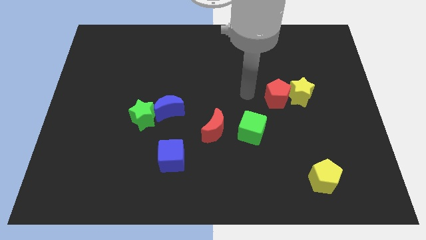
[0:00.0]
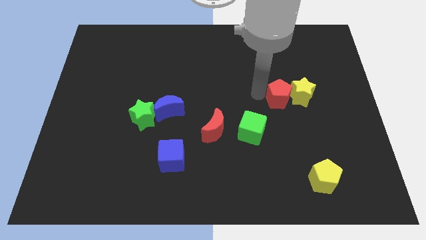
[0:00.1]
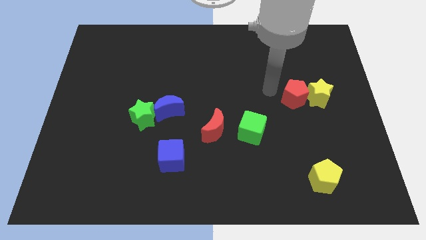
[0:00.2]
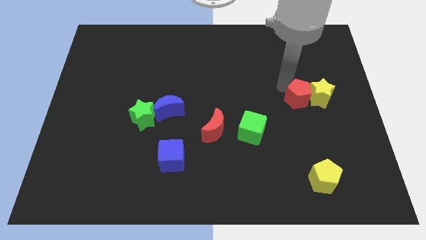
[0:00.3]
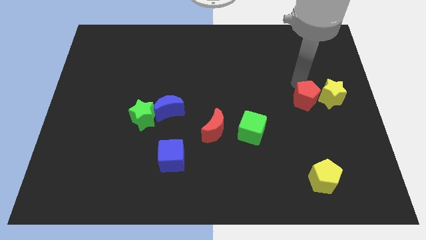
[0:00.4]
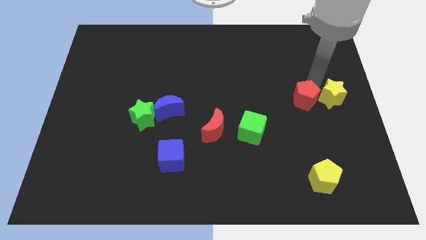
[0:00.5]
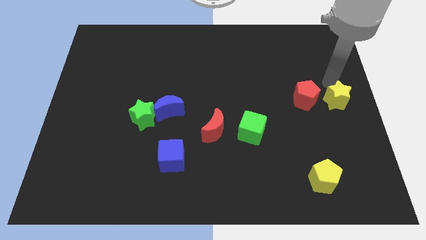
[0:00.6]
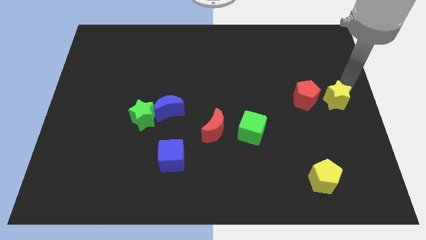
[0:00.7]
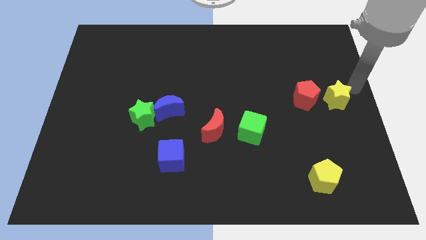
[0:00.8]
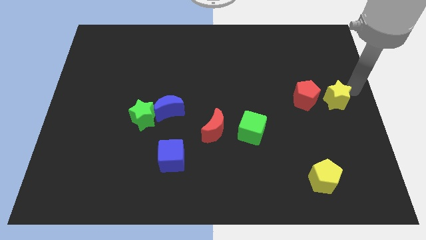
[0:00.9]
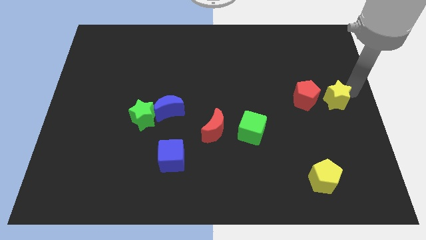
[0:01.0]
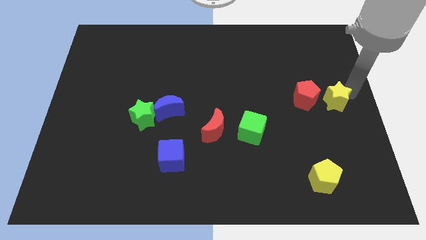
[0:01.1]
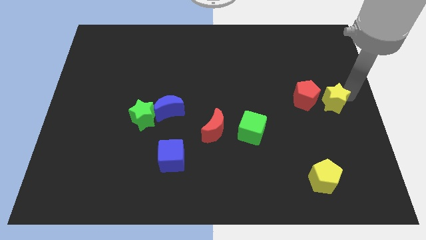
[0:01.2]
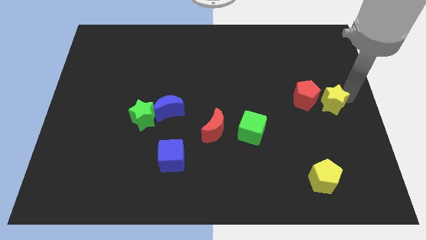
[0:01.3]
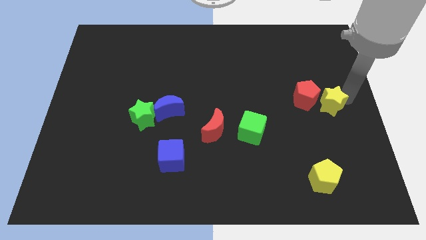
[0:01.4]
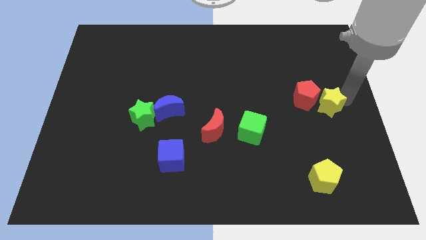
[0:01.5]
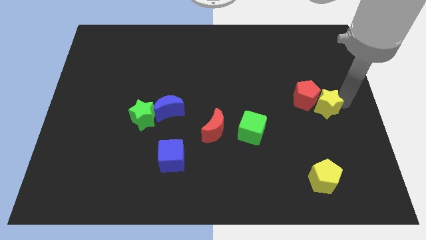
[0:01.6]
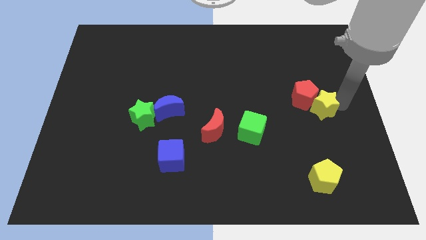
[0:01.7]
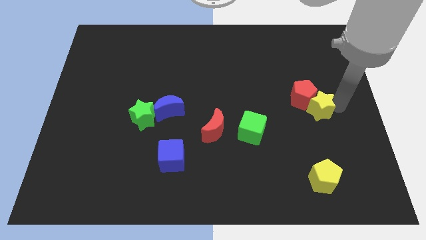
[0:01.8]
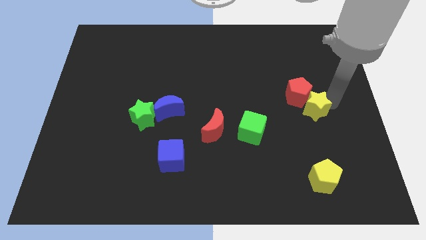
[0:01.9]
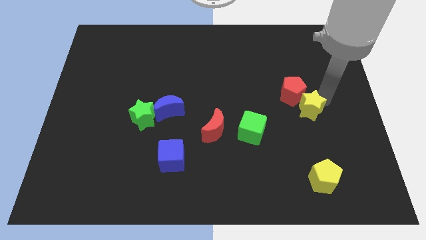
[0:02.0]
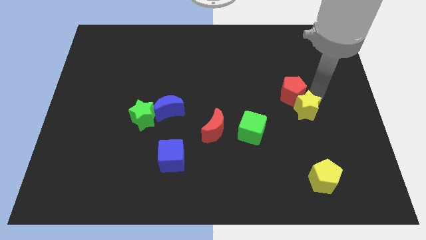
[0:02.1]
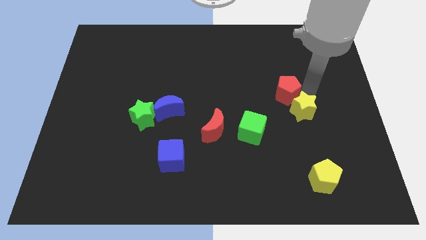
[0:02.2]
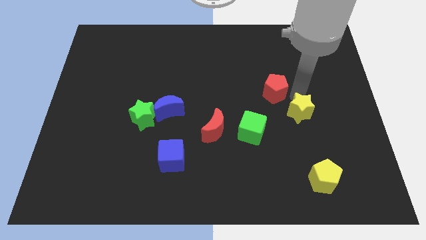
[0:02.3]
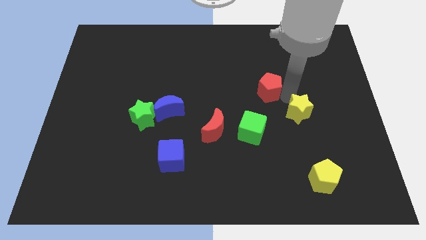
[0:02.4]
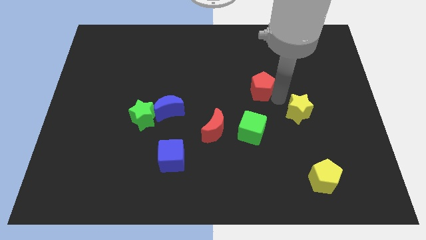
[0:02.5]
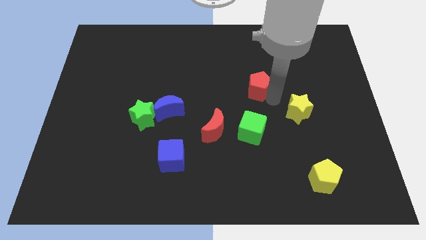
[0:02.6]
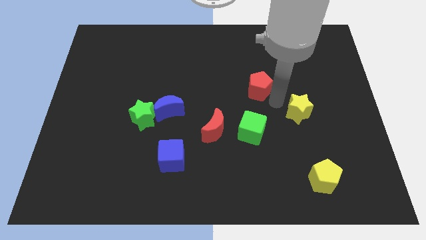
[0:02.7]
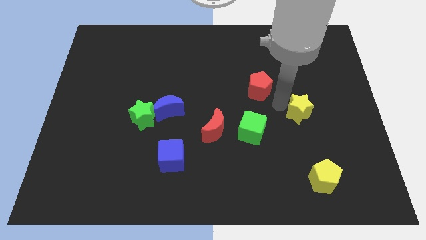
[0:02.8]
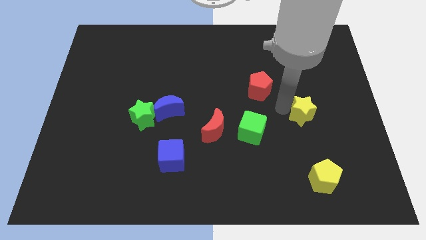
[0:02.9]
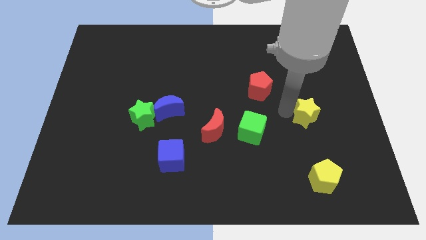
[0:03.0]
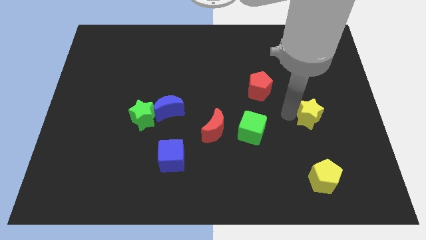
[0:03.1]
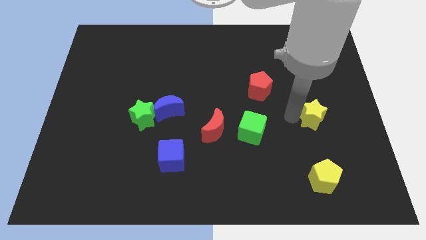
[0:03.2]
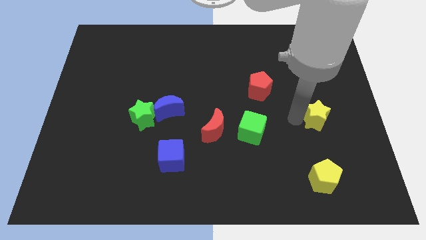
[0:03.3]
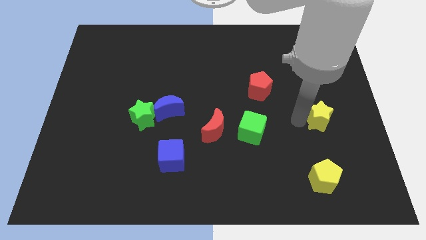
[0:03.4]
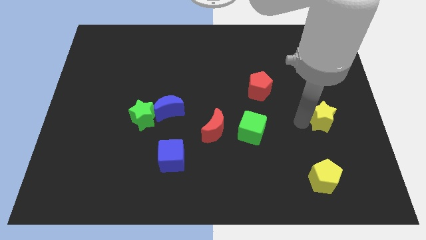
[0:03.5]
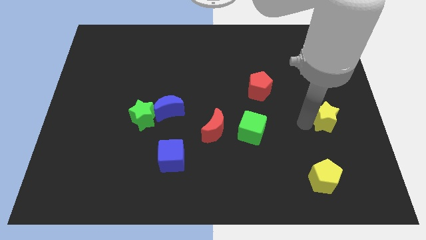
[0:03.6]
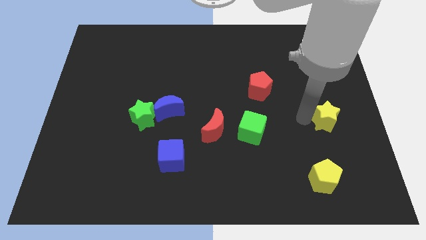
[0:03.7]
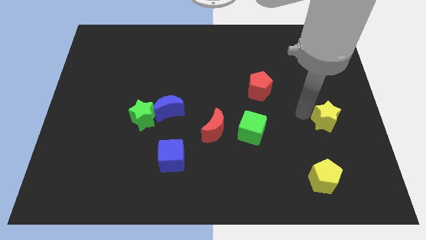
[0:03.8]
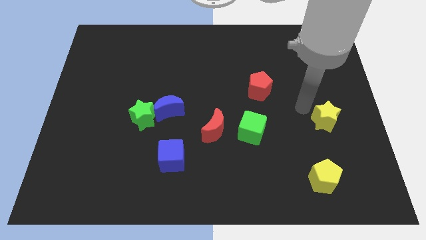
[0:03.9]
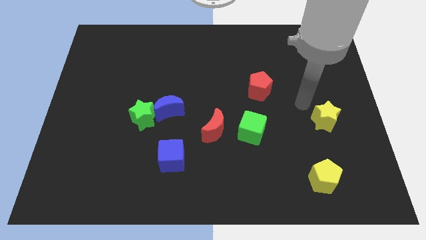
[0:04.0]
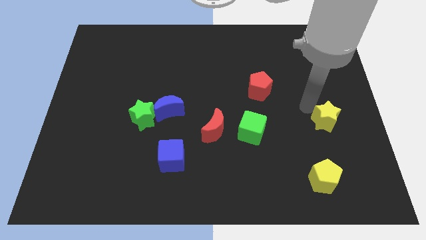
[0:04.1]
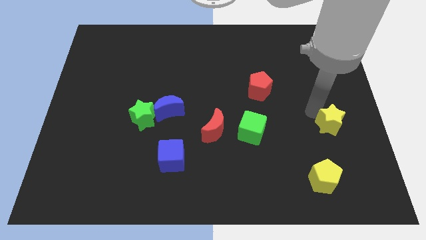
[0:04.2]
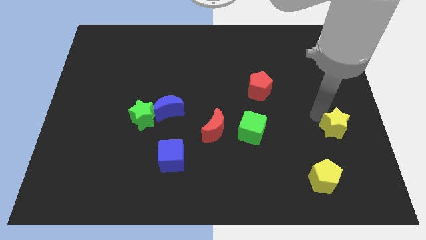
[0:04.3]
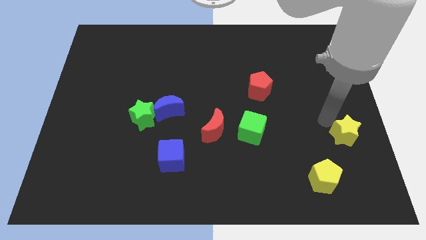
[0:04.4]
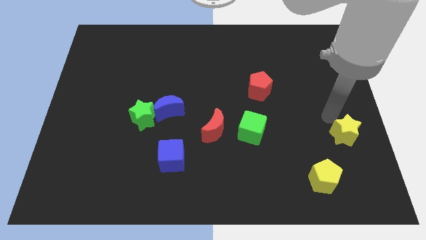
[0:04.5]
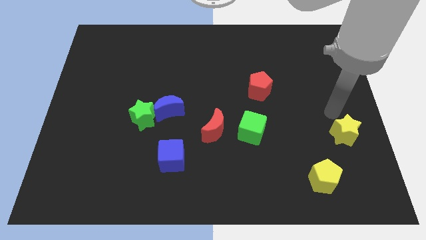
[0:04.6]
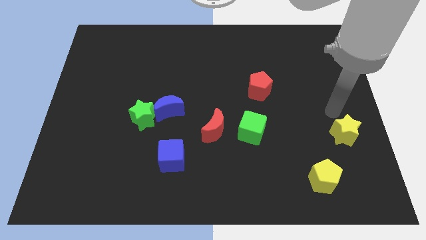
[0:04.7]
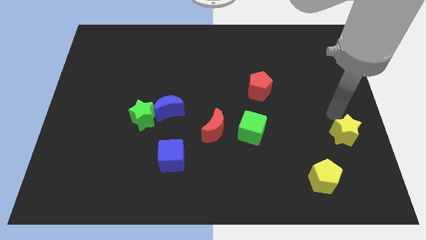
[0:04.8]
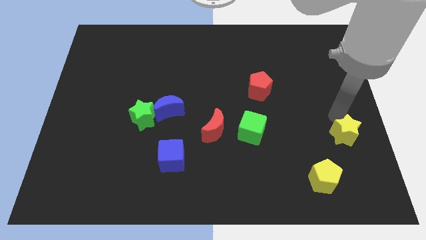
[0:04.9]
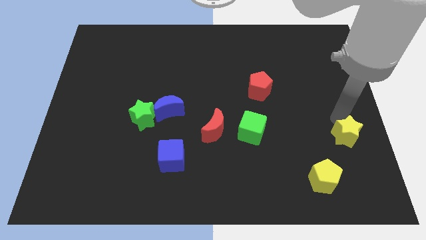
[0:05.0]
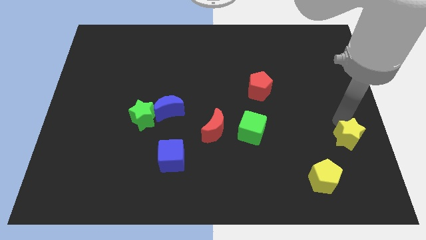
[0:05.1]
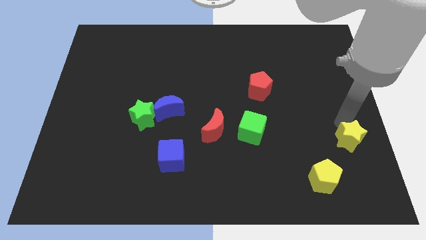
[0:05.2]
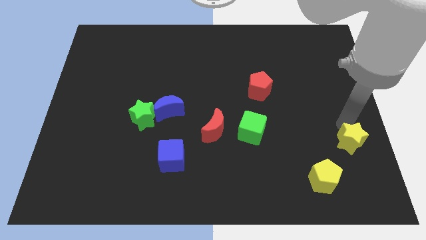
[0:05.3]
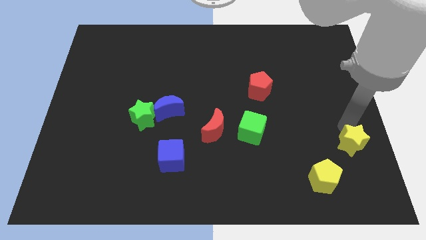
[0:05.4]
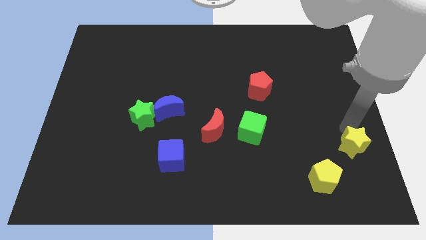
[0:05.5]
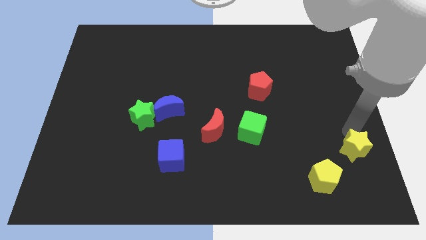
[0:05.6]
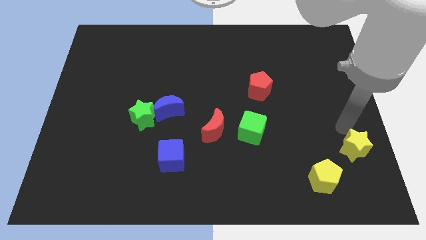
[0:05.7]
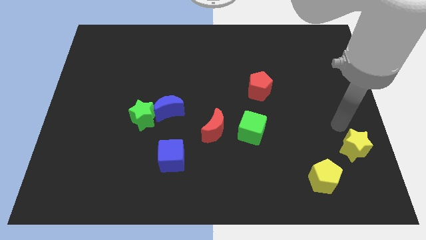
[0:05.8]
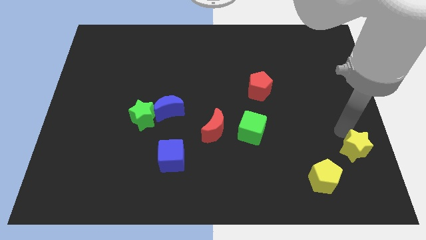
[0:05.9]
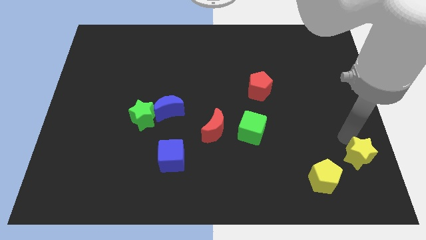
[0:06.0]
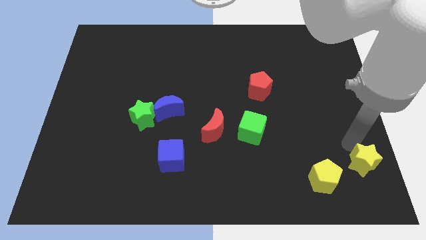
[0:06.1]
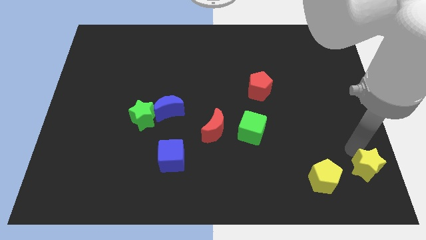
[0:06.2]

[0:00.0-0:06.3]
put the yellow star to the bottom right
